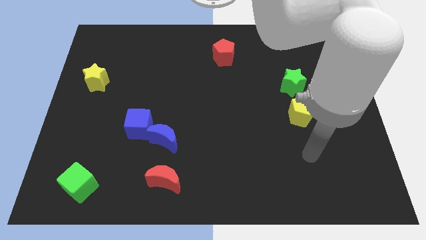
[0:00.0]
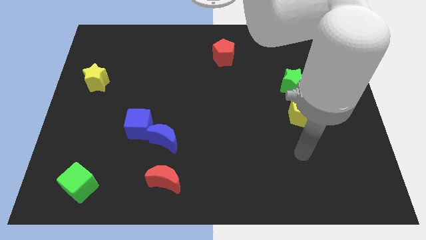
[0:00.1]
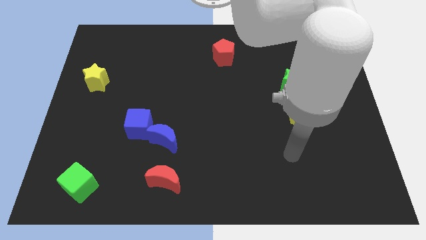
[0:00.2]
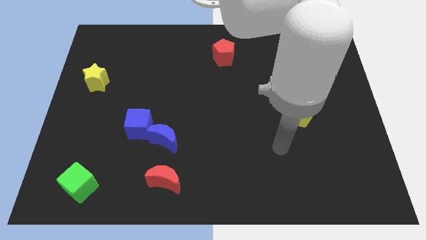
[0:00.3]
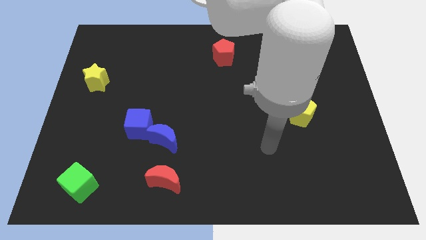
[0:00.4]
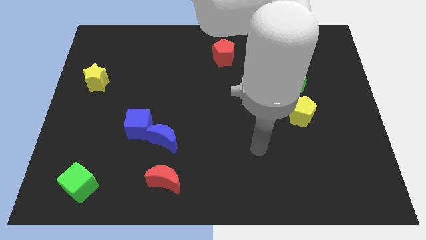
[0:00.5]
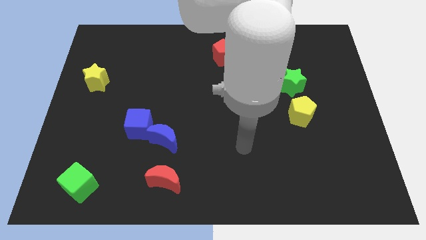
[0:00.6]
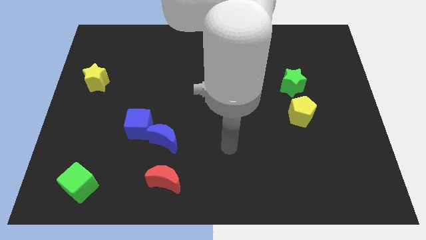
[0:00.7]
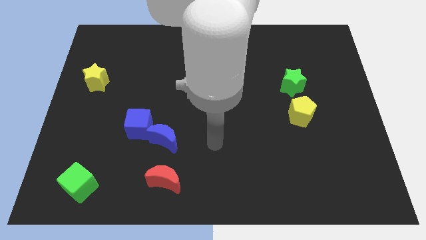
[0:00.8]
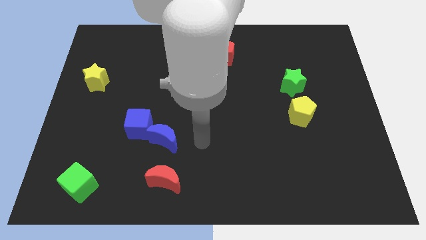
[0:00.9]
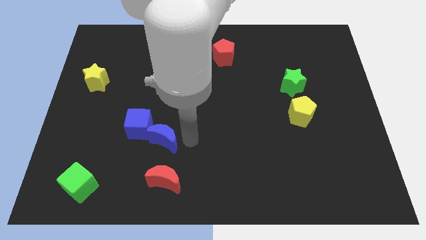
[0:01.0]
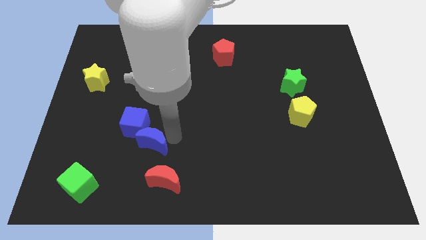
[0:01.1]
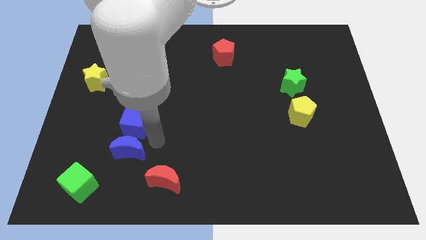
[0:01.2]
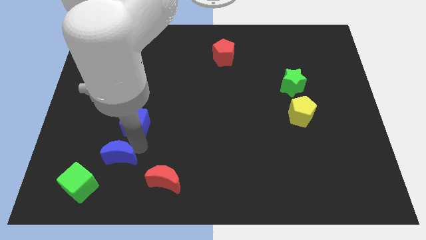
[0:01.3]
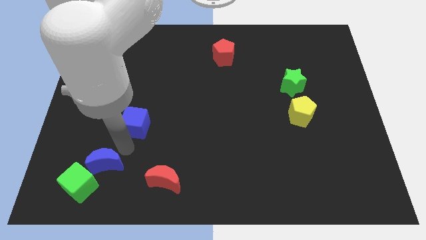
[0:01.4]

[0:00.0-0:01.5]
move the blue cube away from the blue moon

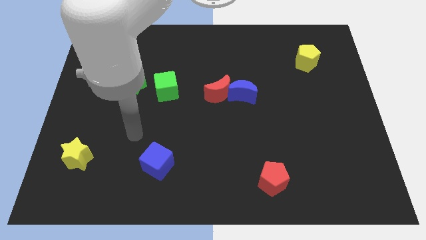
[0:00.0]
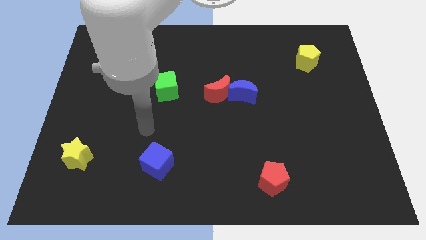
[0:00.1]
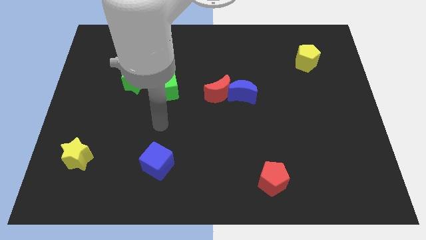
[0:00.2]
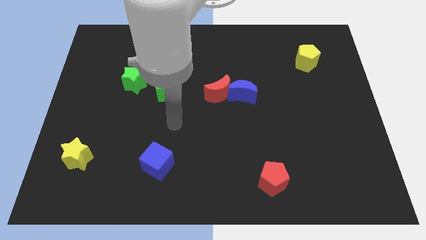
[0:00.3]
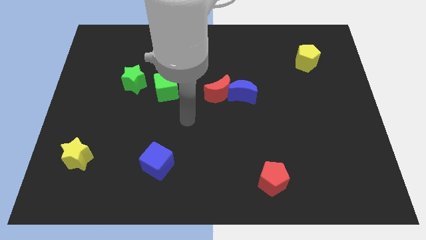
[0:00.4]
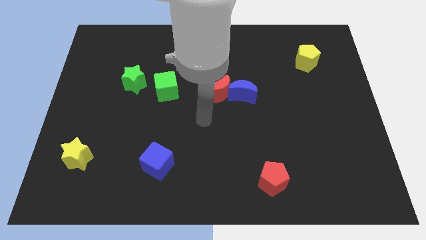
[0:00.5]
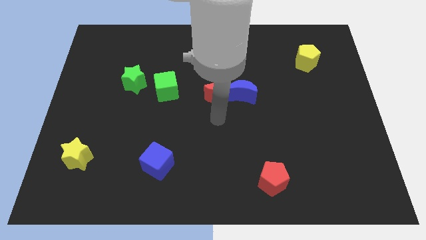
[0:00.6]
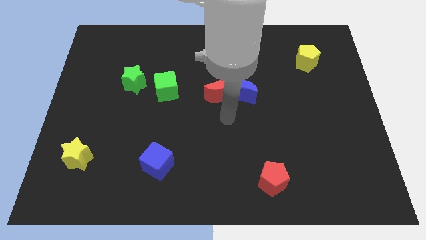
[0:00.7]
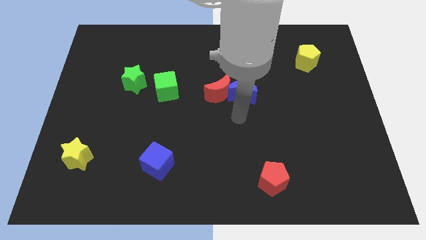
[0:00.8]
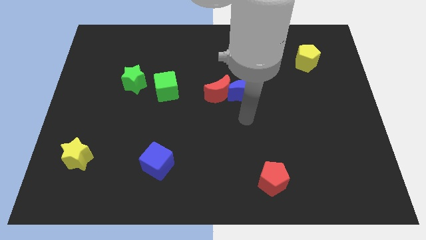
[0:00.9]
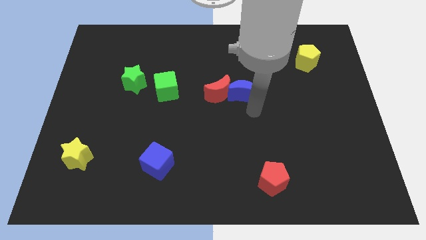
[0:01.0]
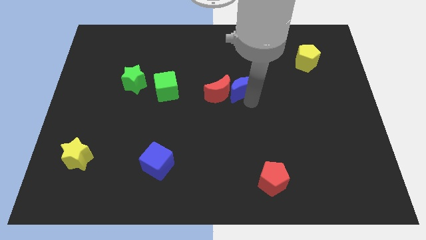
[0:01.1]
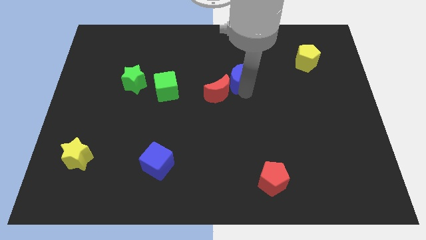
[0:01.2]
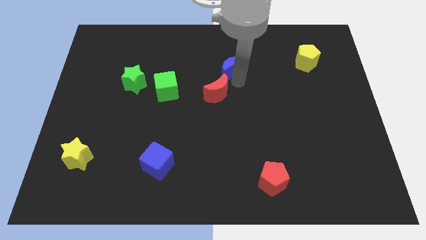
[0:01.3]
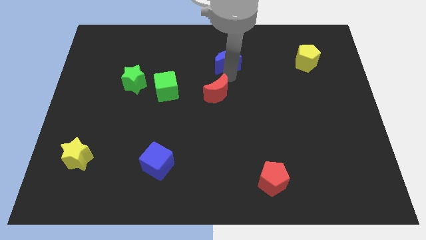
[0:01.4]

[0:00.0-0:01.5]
separate the red moon from the blue moon

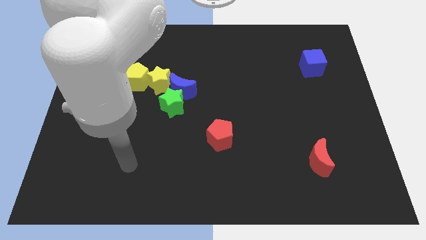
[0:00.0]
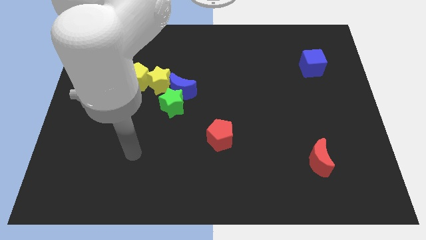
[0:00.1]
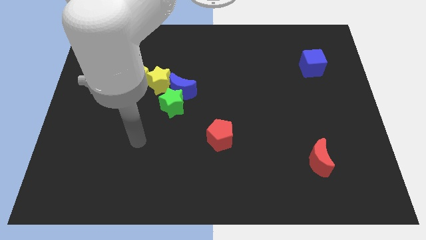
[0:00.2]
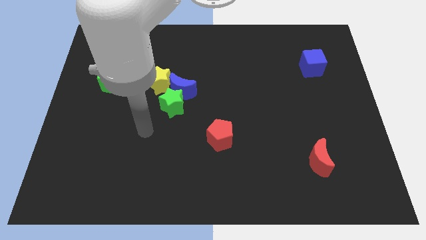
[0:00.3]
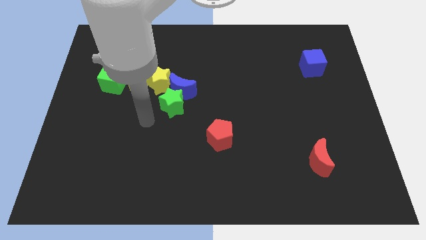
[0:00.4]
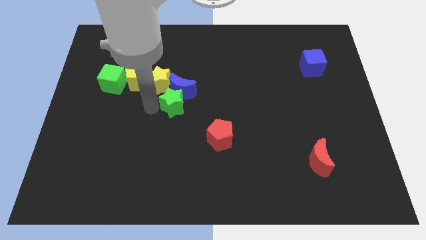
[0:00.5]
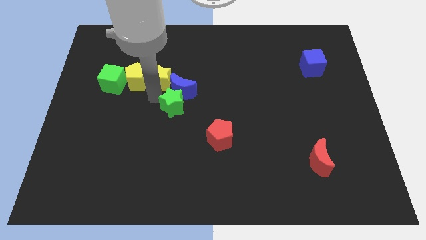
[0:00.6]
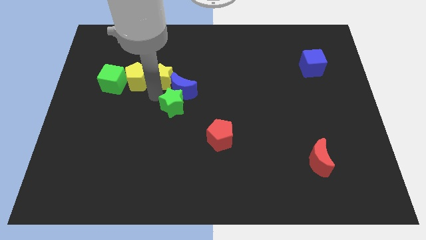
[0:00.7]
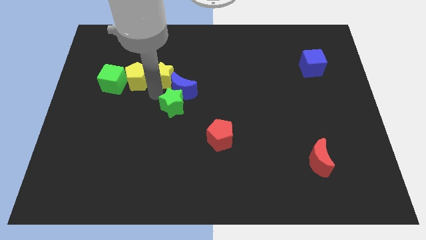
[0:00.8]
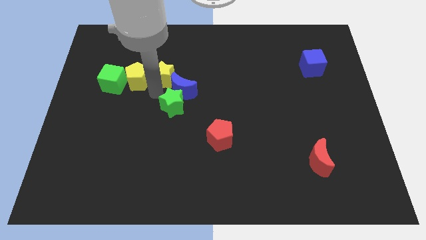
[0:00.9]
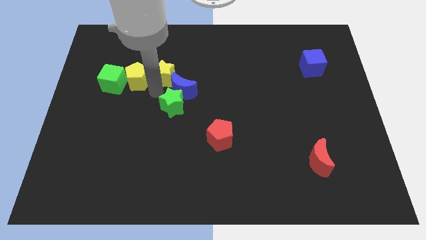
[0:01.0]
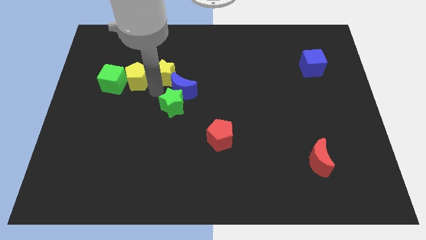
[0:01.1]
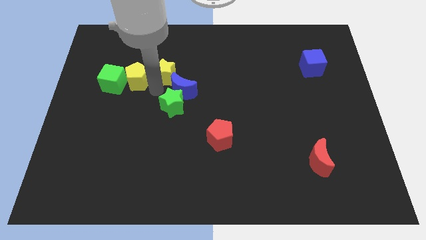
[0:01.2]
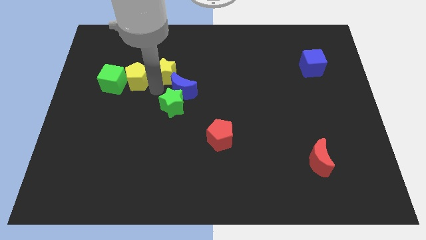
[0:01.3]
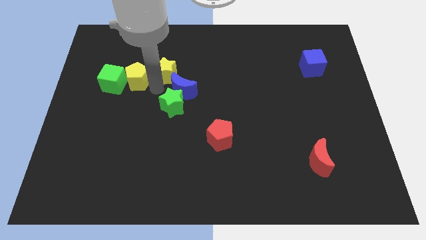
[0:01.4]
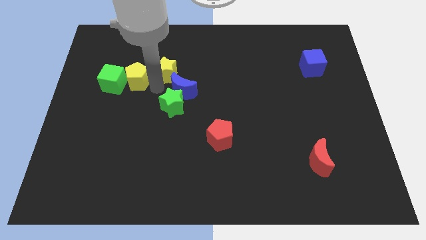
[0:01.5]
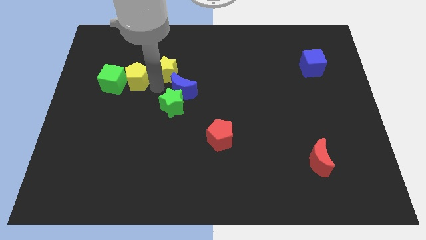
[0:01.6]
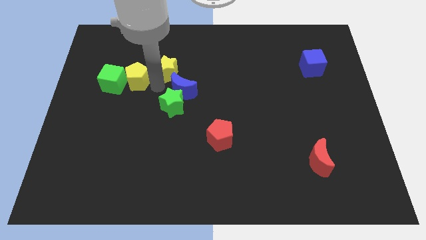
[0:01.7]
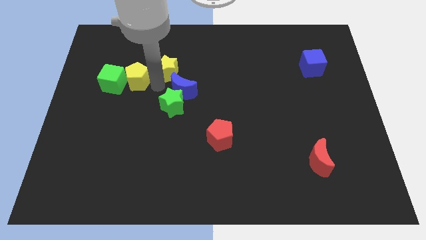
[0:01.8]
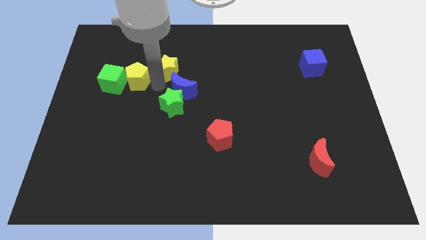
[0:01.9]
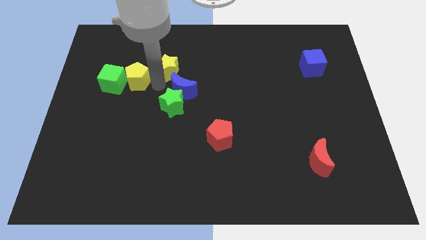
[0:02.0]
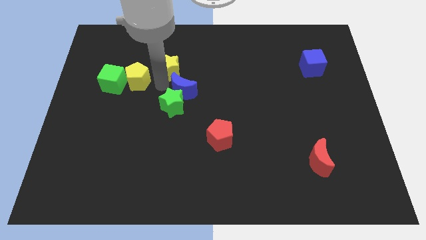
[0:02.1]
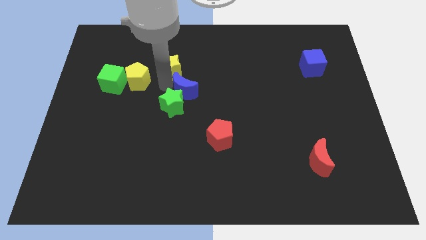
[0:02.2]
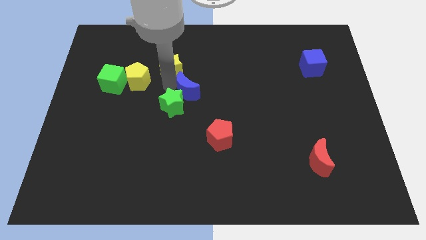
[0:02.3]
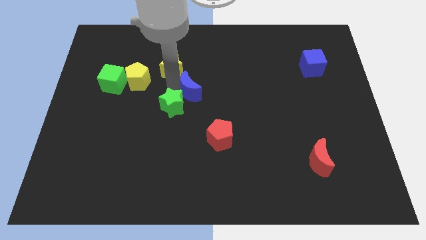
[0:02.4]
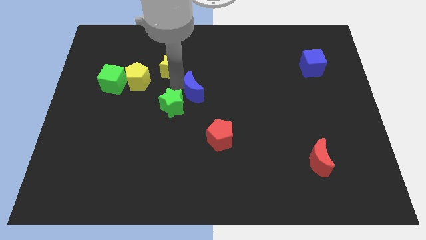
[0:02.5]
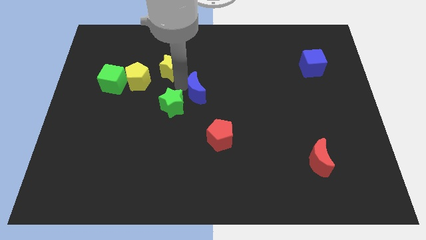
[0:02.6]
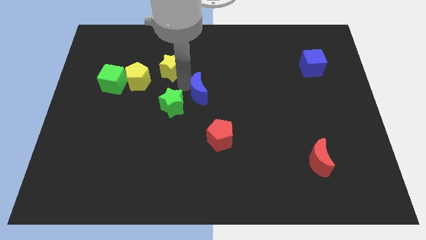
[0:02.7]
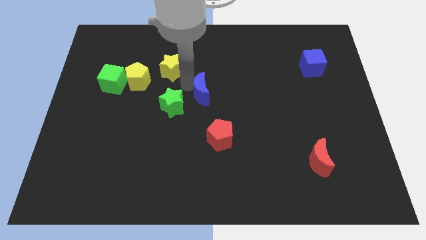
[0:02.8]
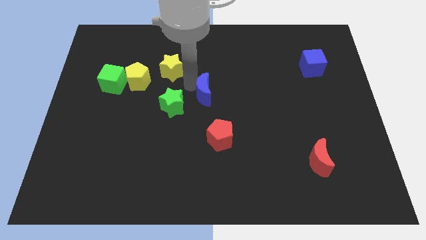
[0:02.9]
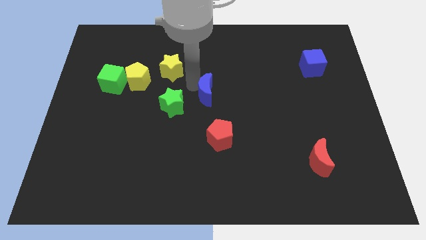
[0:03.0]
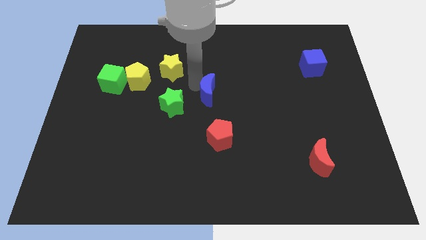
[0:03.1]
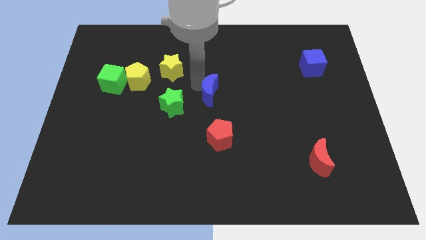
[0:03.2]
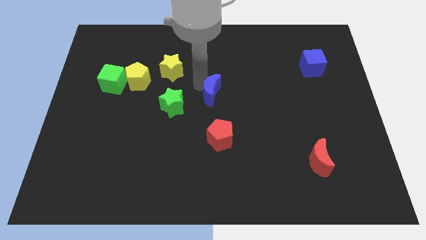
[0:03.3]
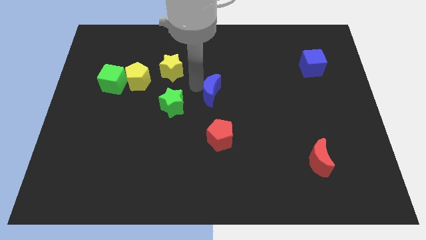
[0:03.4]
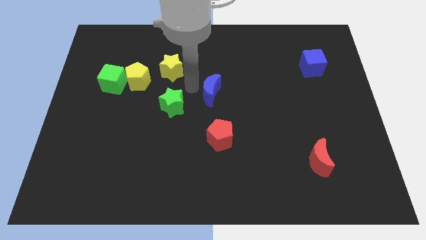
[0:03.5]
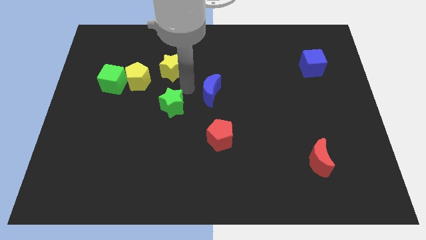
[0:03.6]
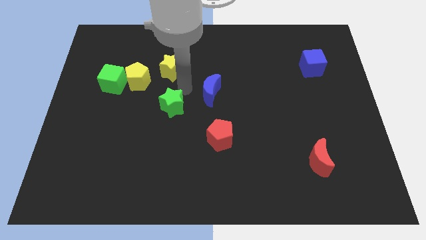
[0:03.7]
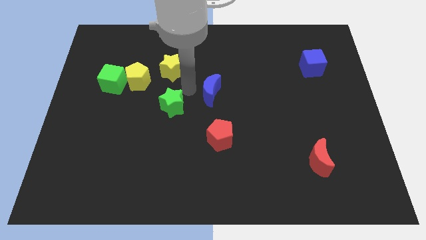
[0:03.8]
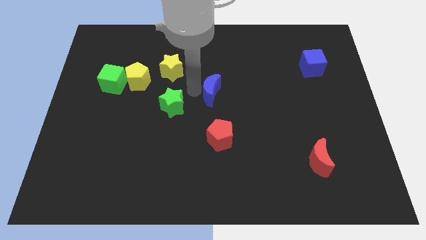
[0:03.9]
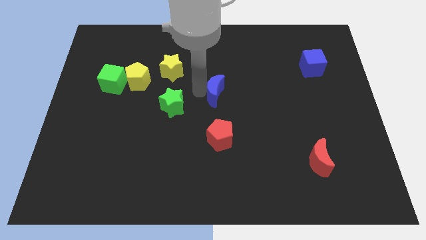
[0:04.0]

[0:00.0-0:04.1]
move the blue moon away from the green star and yellow star

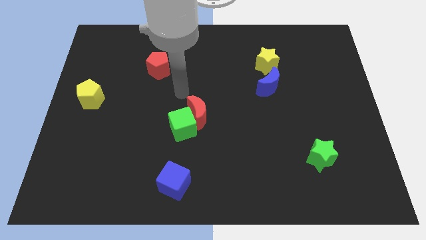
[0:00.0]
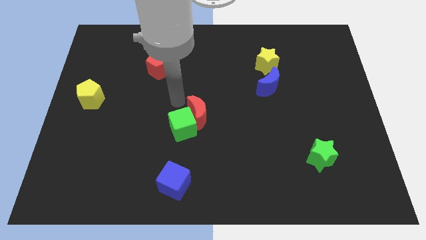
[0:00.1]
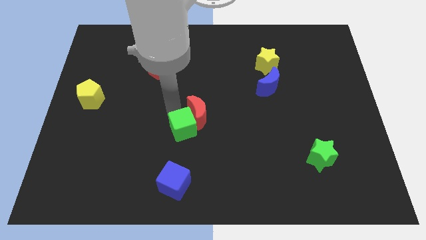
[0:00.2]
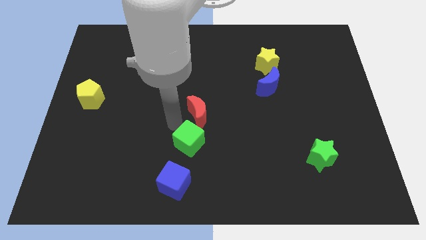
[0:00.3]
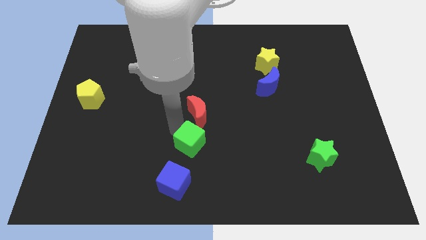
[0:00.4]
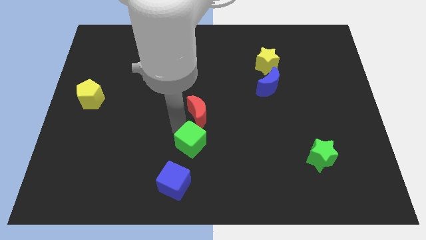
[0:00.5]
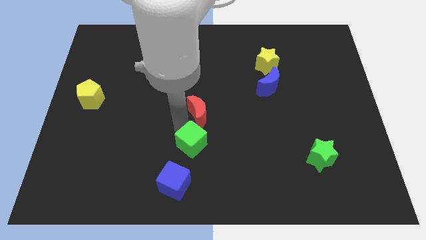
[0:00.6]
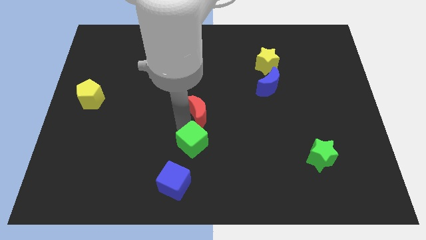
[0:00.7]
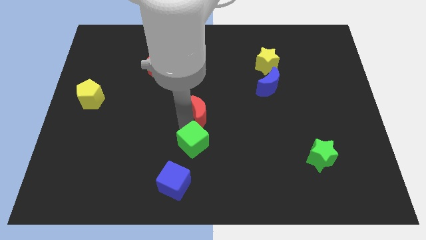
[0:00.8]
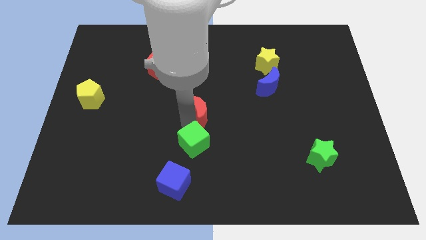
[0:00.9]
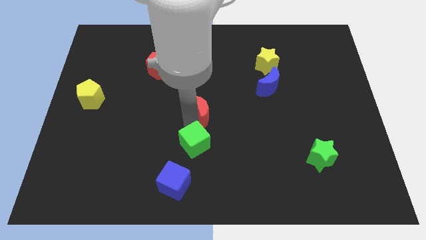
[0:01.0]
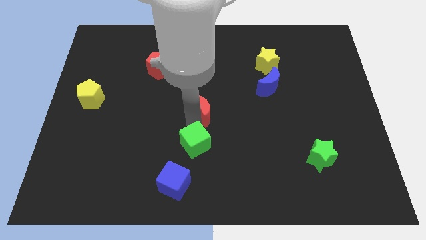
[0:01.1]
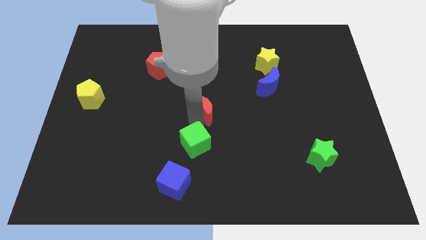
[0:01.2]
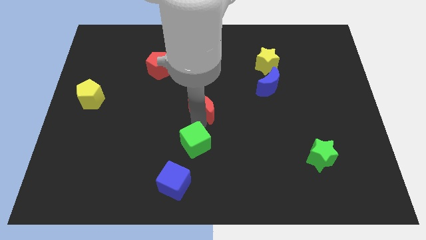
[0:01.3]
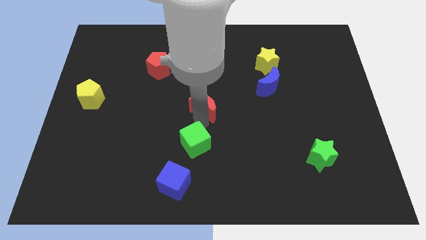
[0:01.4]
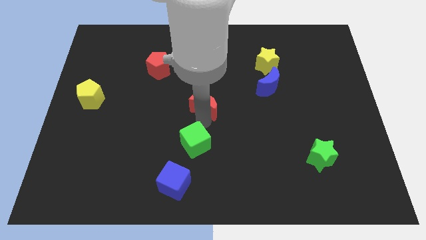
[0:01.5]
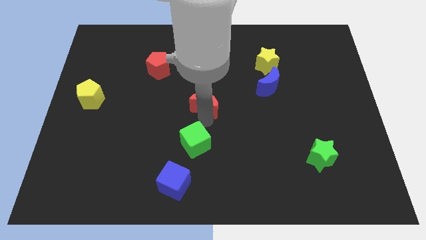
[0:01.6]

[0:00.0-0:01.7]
move the red moon away from the green cube

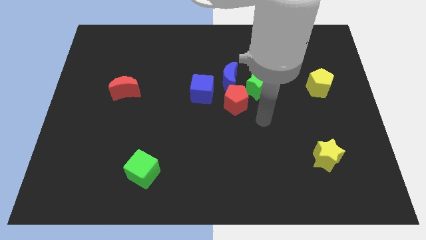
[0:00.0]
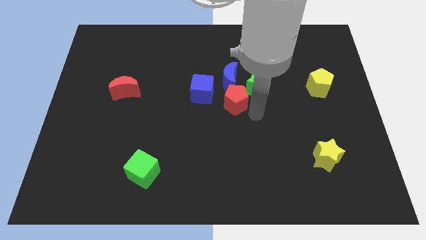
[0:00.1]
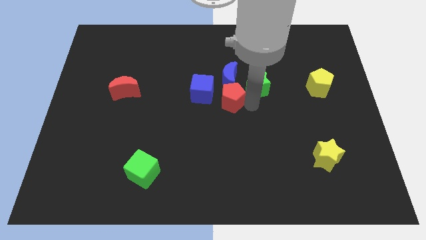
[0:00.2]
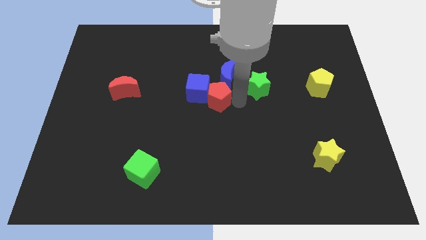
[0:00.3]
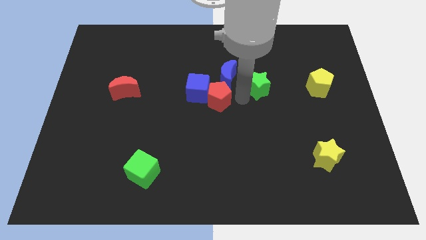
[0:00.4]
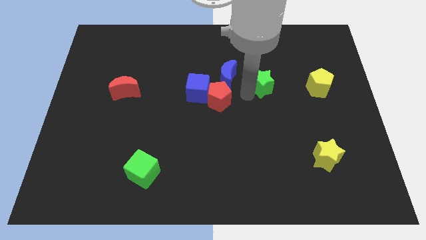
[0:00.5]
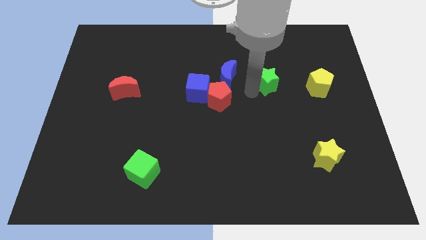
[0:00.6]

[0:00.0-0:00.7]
separate the green star from the red pentagon and blue moon
